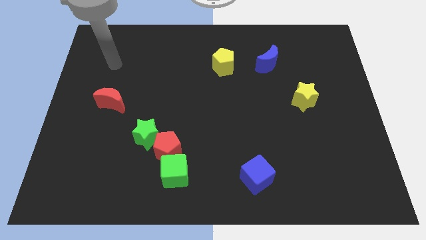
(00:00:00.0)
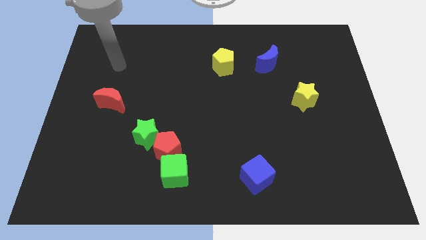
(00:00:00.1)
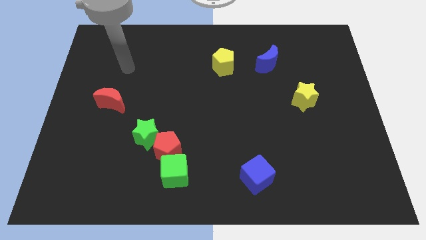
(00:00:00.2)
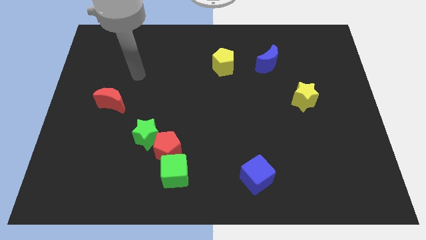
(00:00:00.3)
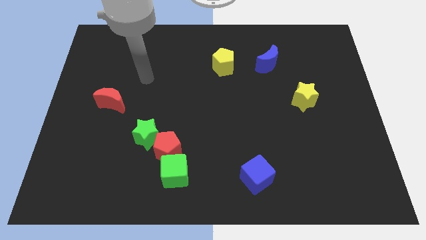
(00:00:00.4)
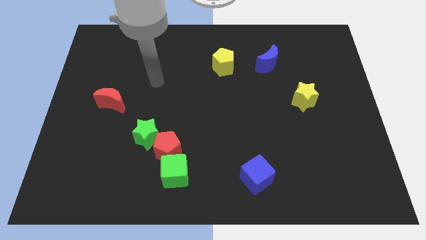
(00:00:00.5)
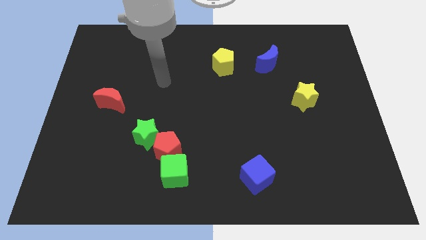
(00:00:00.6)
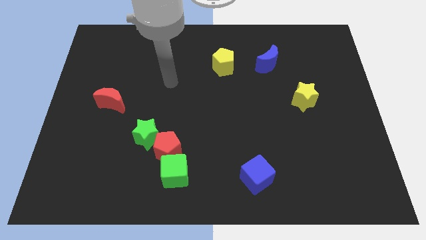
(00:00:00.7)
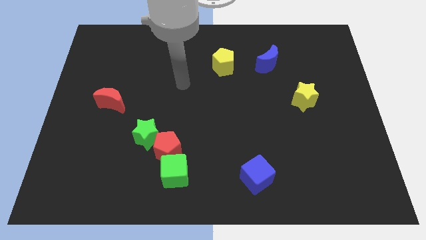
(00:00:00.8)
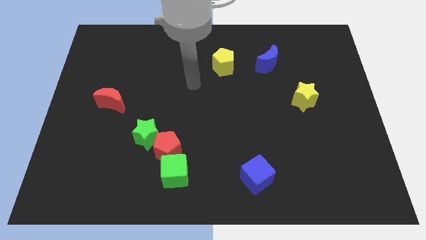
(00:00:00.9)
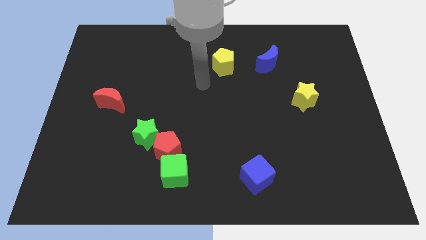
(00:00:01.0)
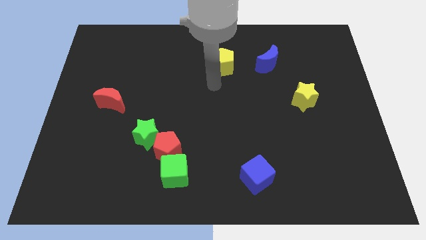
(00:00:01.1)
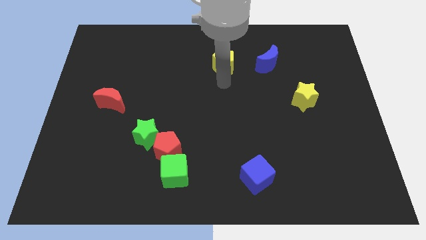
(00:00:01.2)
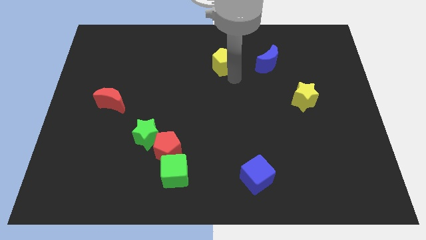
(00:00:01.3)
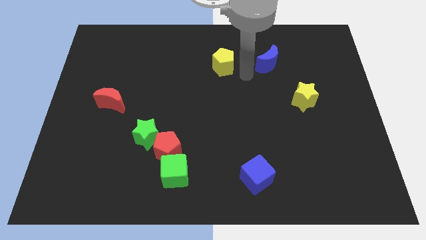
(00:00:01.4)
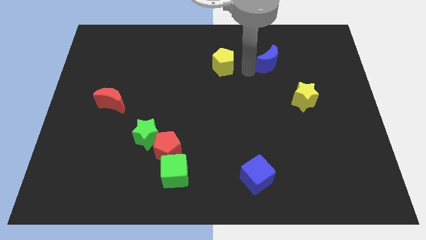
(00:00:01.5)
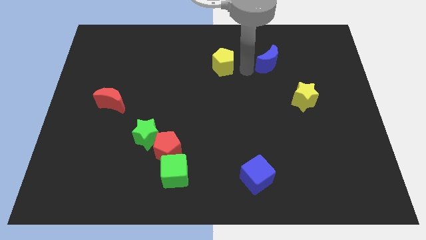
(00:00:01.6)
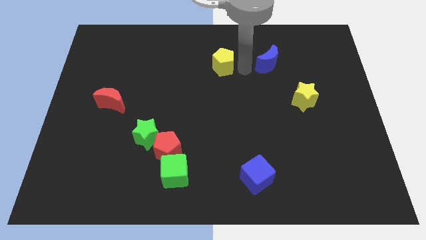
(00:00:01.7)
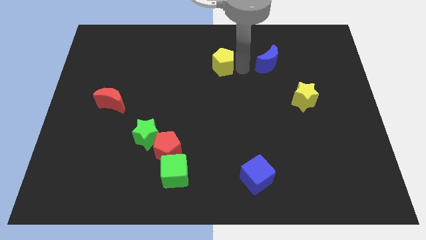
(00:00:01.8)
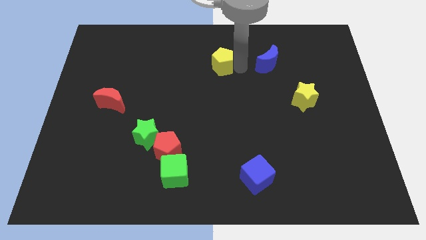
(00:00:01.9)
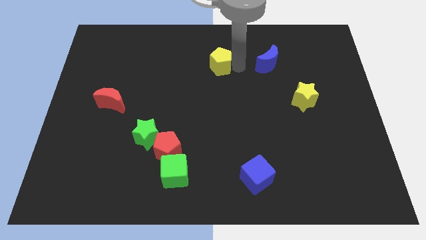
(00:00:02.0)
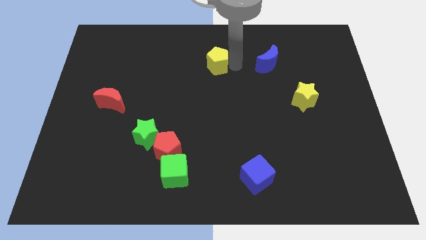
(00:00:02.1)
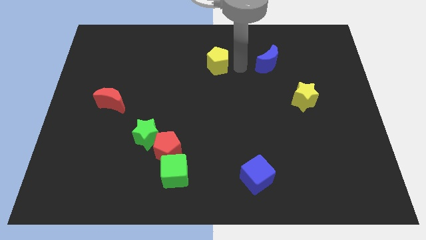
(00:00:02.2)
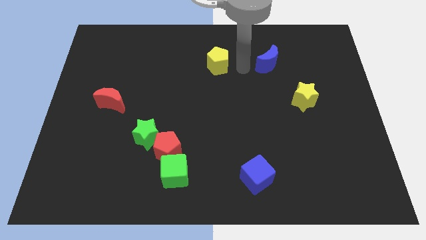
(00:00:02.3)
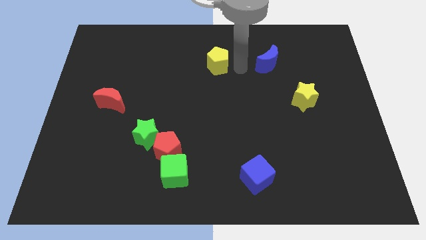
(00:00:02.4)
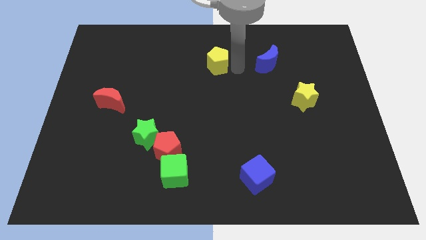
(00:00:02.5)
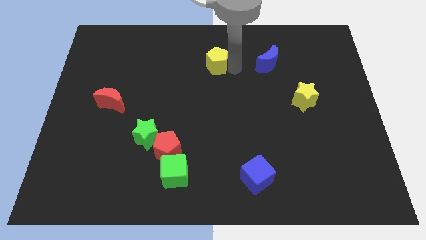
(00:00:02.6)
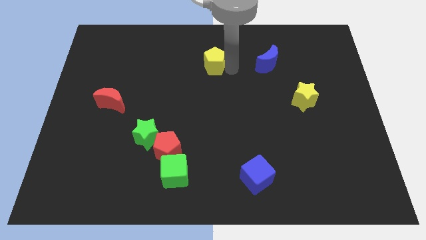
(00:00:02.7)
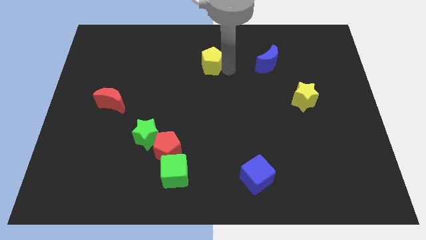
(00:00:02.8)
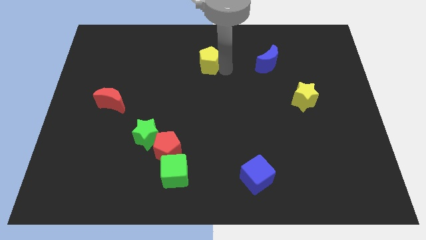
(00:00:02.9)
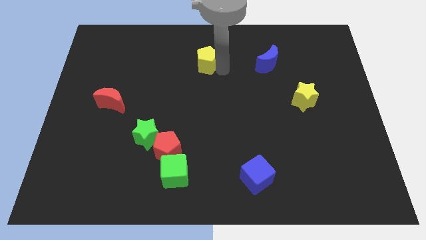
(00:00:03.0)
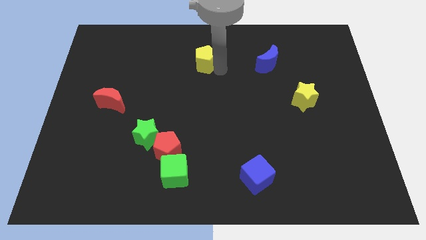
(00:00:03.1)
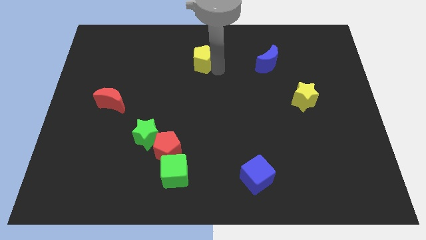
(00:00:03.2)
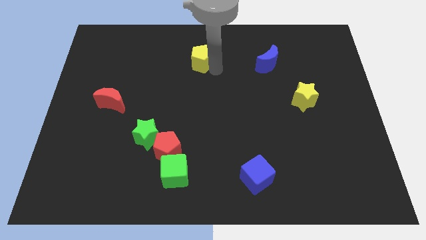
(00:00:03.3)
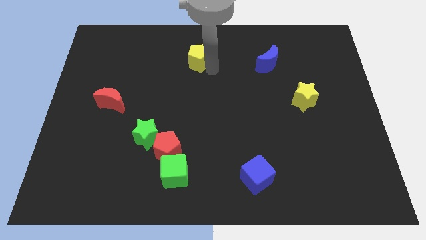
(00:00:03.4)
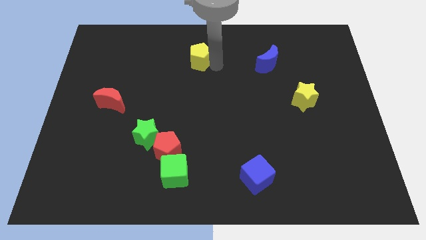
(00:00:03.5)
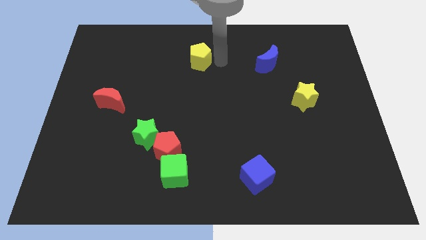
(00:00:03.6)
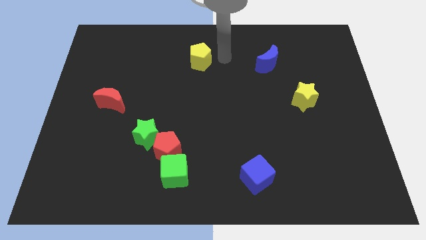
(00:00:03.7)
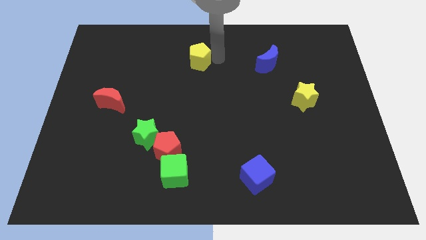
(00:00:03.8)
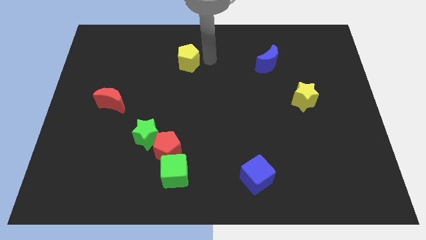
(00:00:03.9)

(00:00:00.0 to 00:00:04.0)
slightly move the yellow pentagon to the left

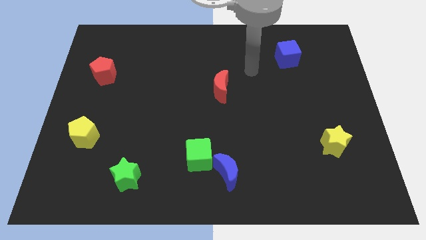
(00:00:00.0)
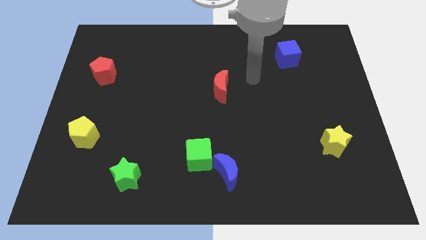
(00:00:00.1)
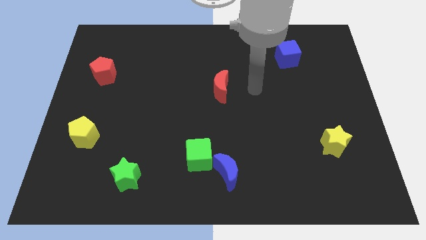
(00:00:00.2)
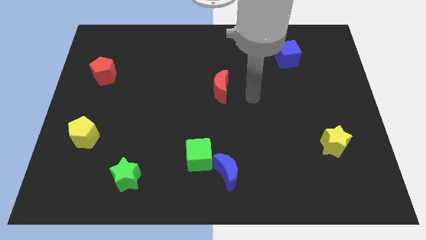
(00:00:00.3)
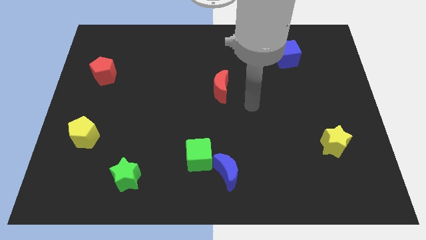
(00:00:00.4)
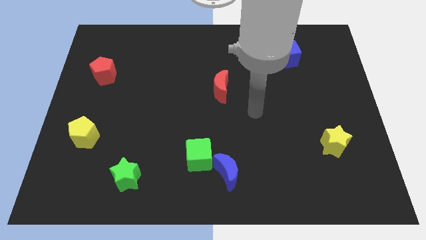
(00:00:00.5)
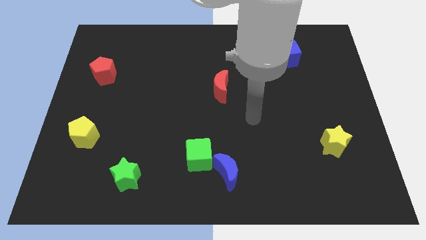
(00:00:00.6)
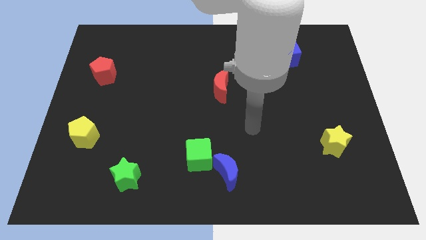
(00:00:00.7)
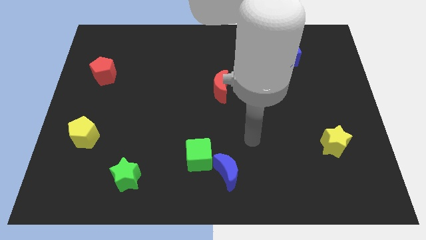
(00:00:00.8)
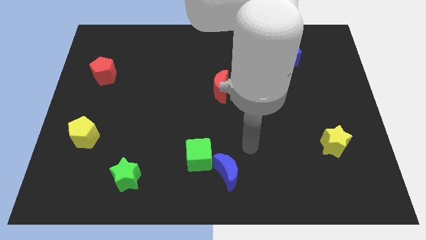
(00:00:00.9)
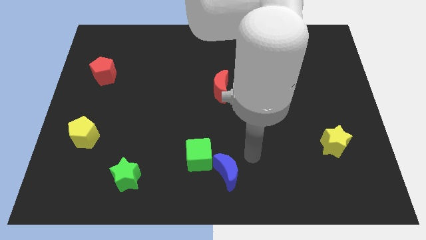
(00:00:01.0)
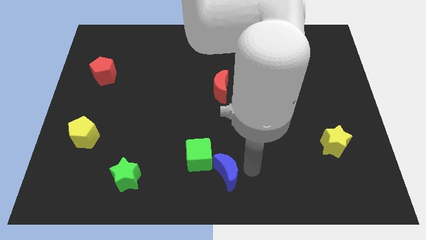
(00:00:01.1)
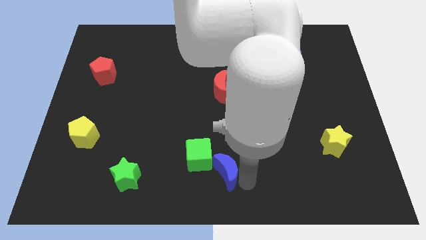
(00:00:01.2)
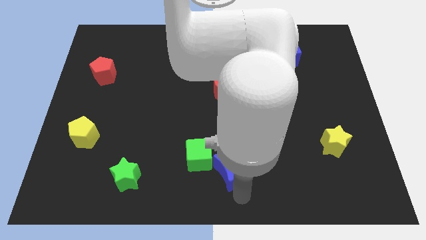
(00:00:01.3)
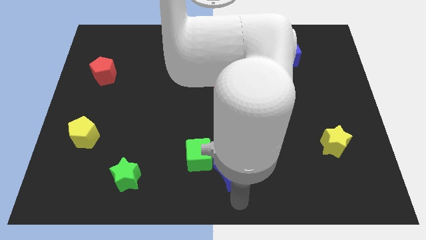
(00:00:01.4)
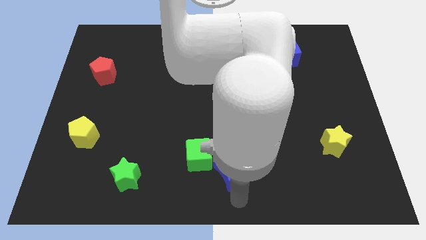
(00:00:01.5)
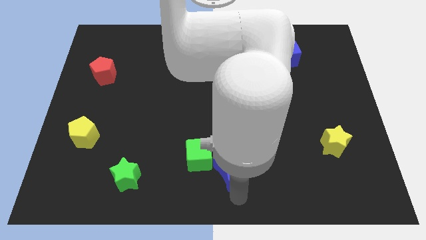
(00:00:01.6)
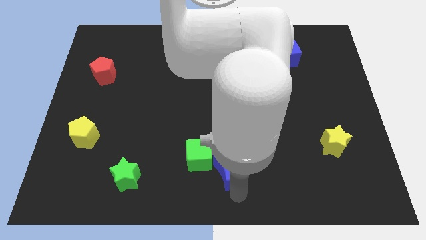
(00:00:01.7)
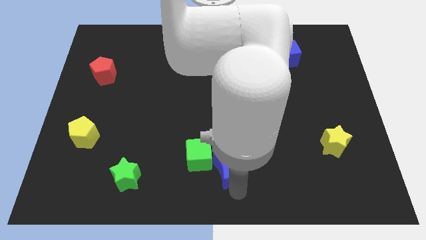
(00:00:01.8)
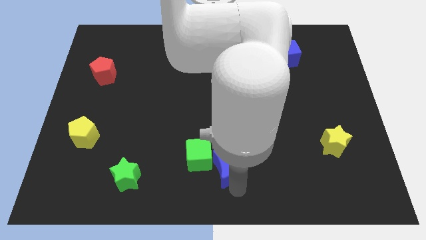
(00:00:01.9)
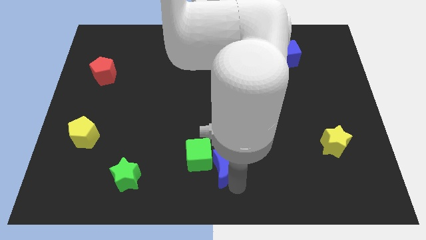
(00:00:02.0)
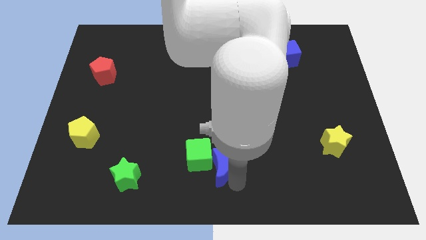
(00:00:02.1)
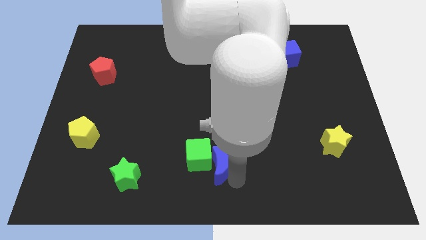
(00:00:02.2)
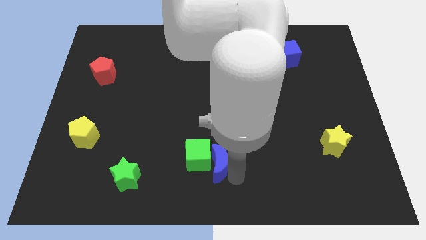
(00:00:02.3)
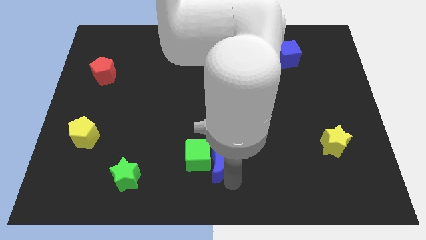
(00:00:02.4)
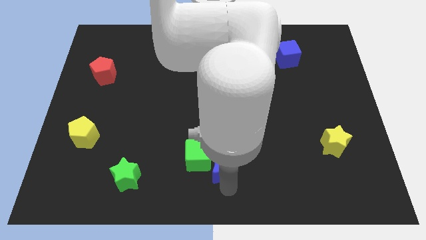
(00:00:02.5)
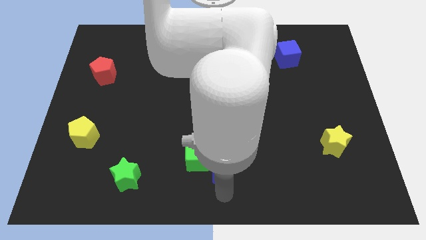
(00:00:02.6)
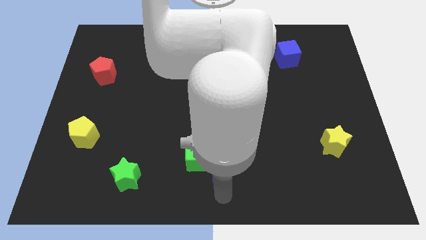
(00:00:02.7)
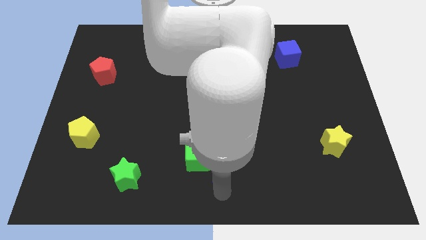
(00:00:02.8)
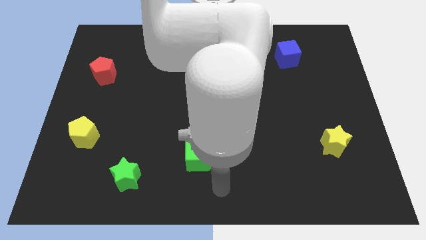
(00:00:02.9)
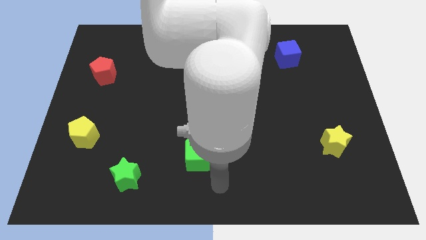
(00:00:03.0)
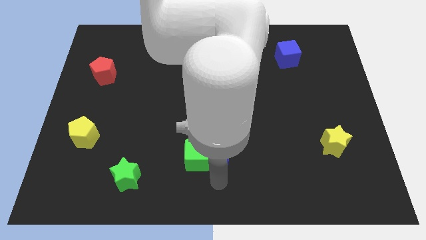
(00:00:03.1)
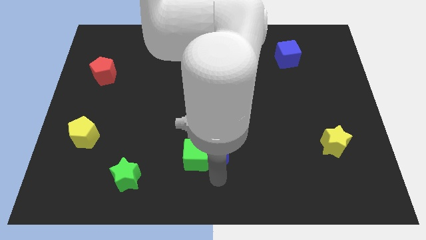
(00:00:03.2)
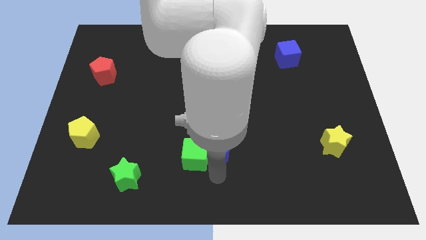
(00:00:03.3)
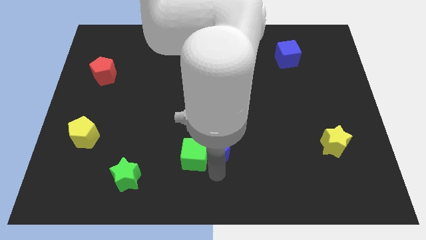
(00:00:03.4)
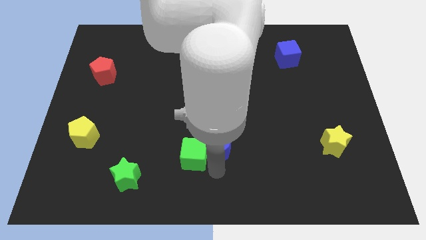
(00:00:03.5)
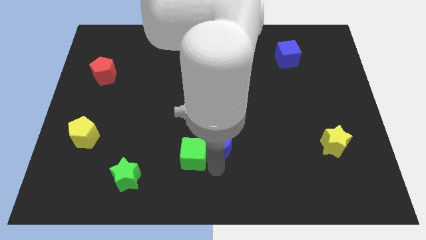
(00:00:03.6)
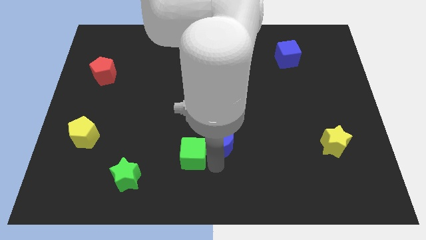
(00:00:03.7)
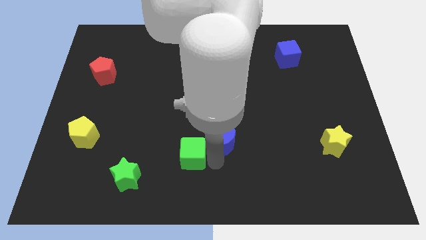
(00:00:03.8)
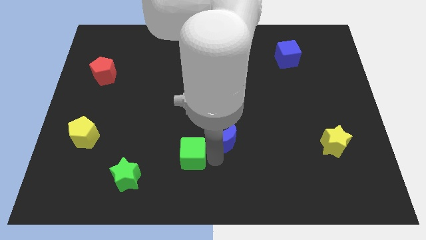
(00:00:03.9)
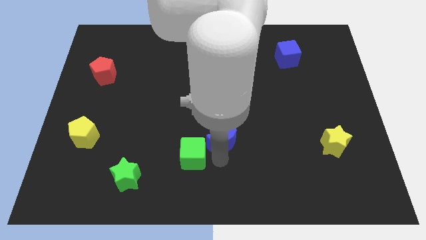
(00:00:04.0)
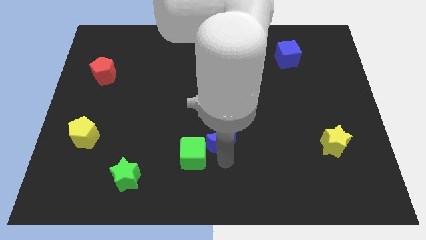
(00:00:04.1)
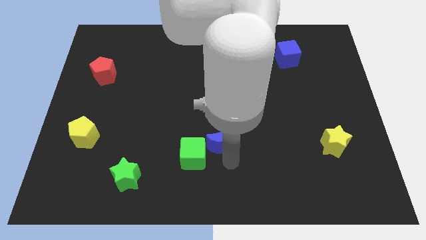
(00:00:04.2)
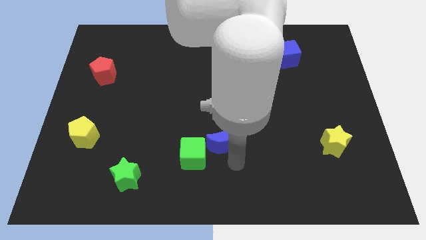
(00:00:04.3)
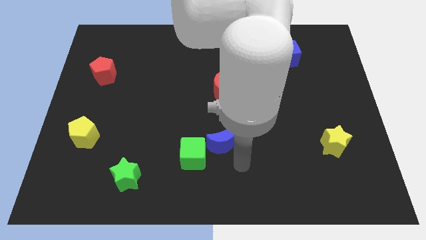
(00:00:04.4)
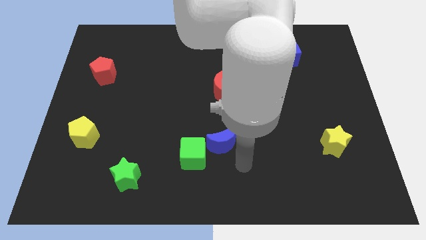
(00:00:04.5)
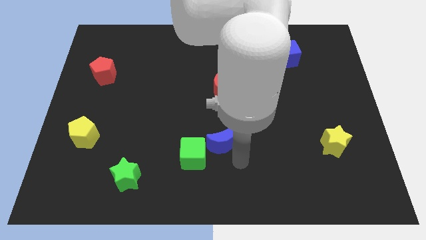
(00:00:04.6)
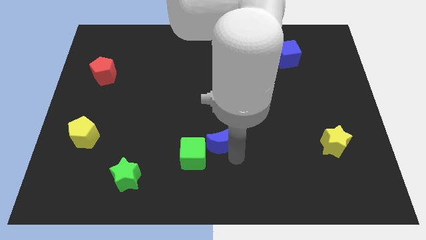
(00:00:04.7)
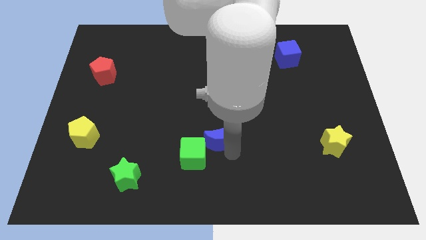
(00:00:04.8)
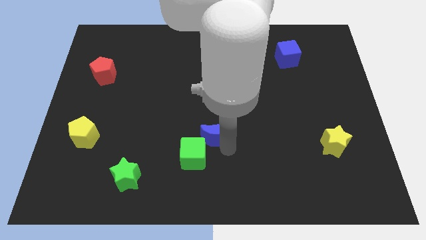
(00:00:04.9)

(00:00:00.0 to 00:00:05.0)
slightly slide the blue moon upwards and to the left diagonally
